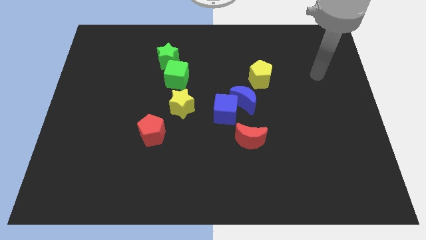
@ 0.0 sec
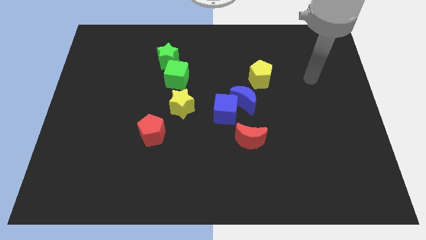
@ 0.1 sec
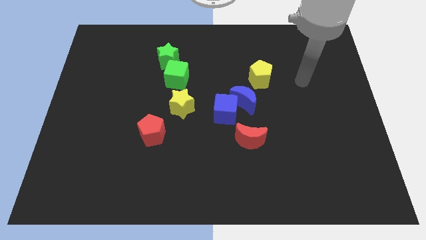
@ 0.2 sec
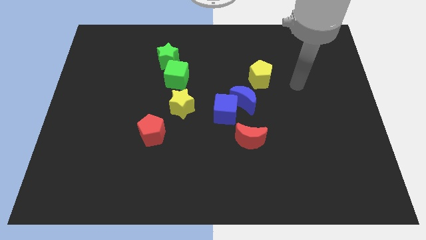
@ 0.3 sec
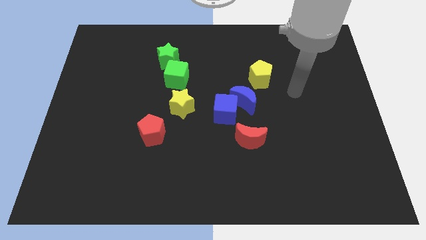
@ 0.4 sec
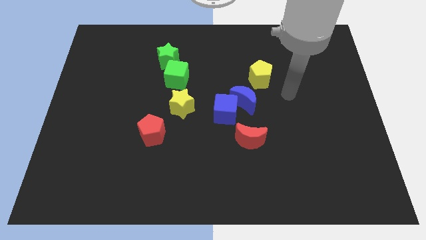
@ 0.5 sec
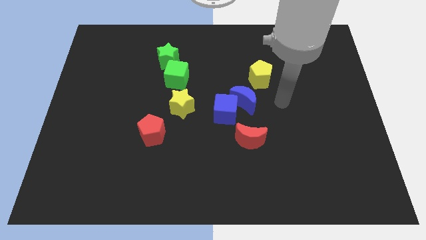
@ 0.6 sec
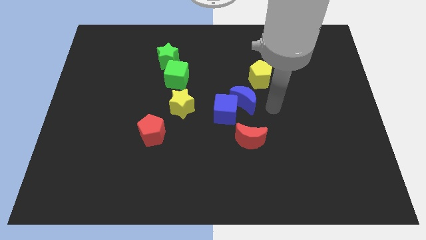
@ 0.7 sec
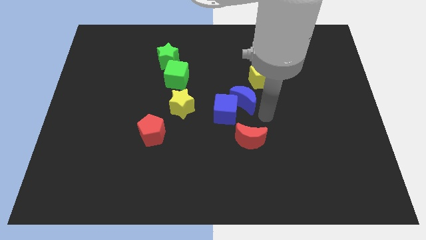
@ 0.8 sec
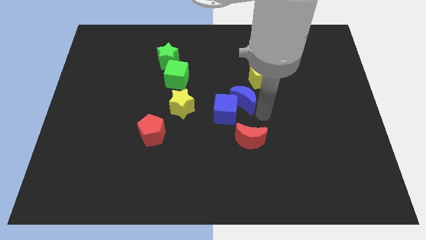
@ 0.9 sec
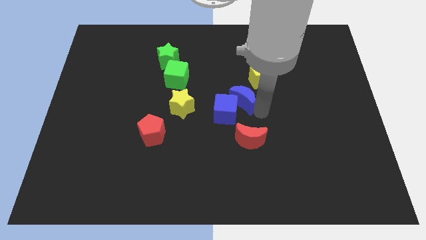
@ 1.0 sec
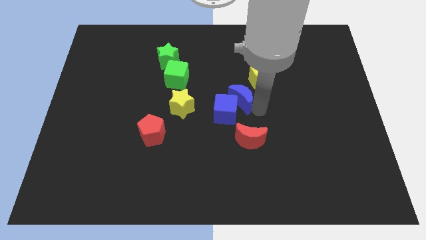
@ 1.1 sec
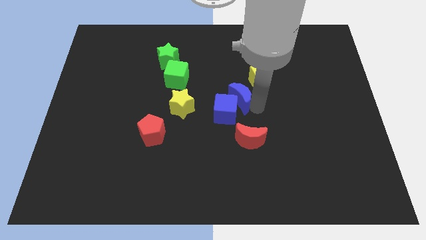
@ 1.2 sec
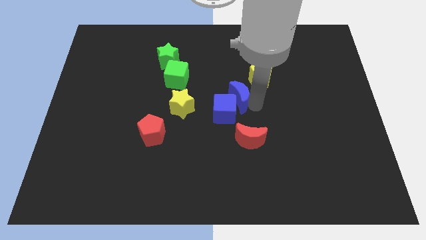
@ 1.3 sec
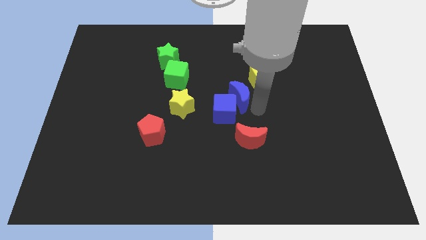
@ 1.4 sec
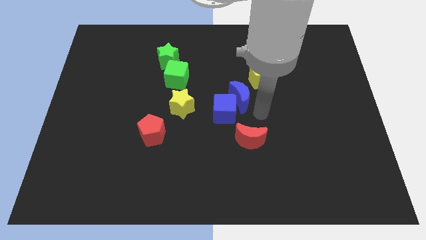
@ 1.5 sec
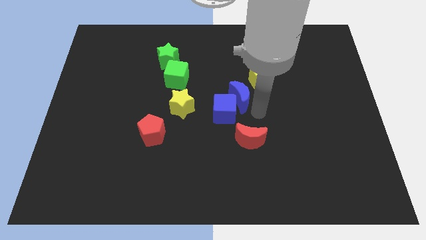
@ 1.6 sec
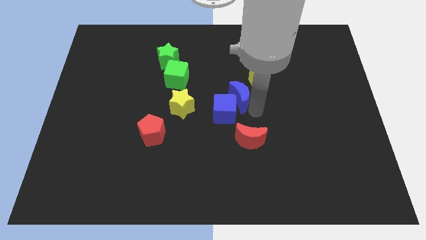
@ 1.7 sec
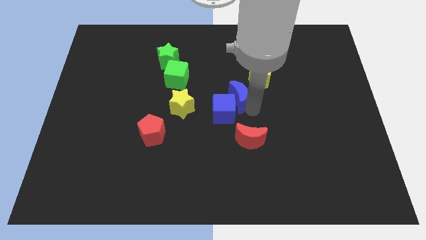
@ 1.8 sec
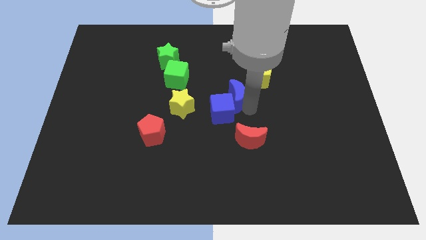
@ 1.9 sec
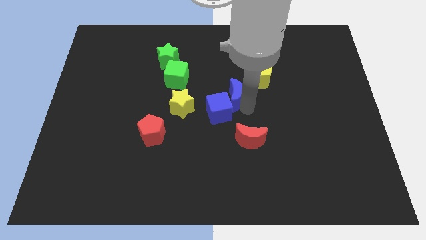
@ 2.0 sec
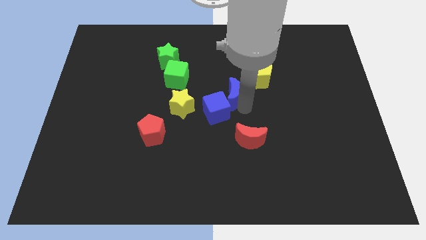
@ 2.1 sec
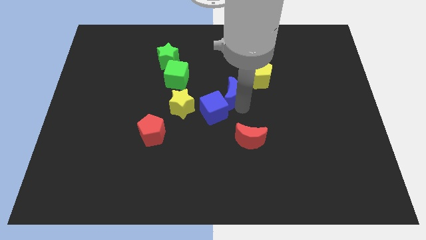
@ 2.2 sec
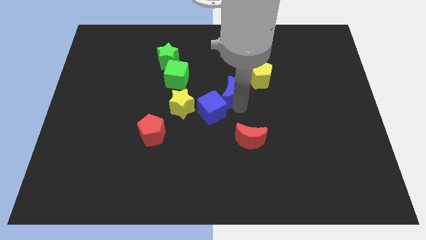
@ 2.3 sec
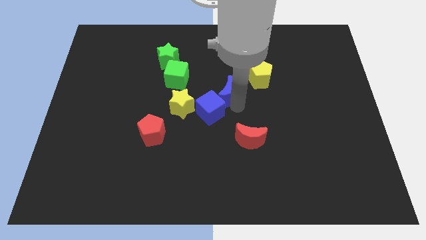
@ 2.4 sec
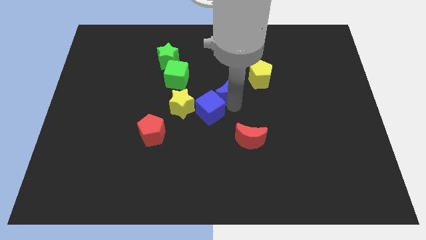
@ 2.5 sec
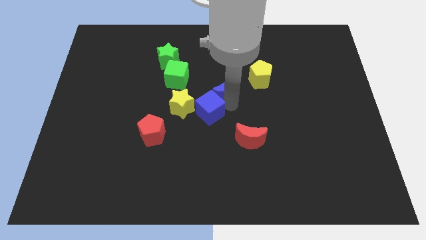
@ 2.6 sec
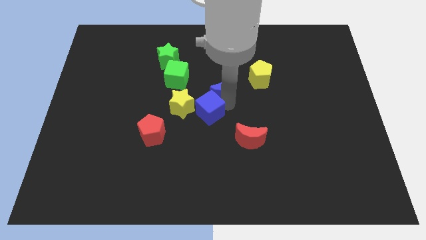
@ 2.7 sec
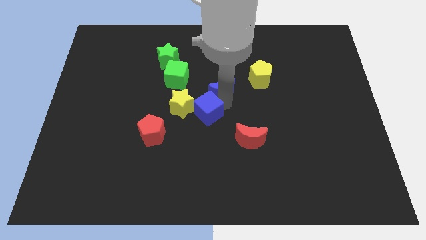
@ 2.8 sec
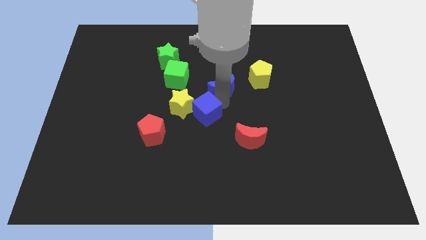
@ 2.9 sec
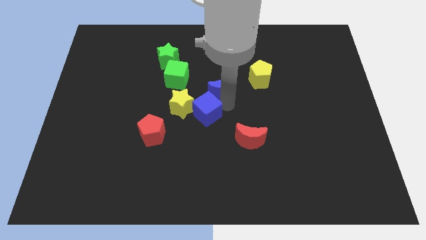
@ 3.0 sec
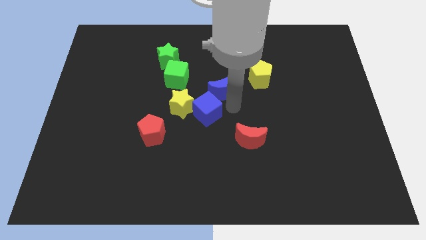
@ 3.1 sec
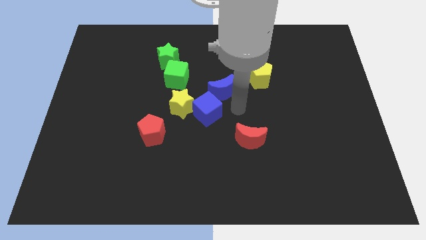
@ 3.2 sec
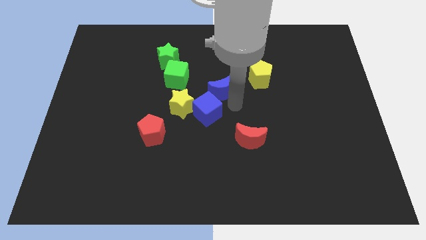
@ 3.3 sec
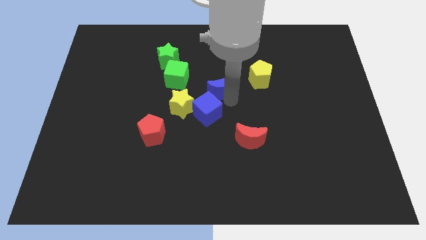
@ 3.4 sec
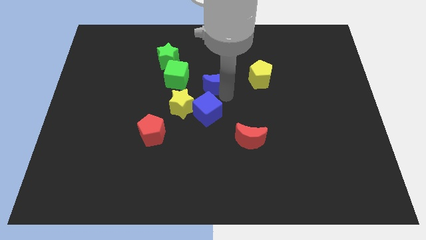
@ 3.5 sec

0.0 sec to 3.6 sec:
push the blue moon diagonally upwards and to the left a bit

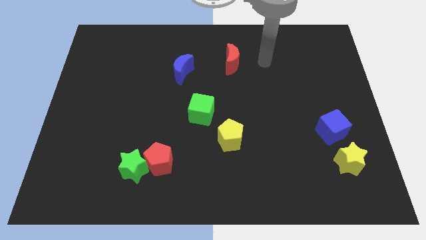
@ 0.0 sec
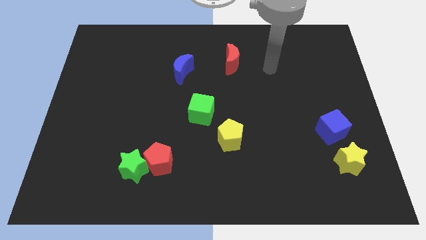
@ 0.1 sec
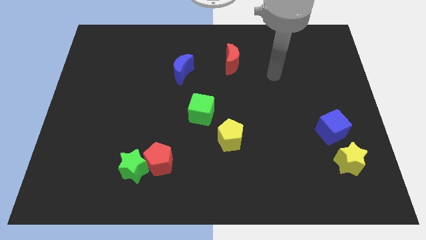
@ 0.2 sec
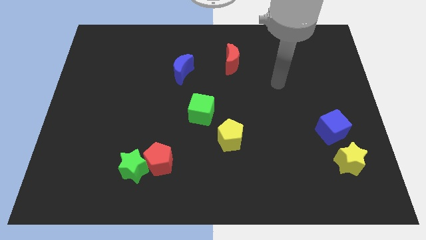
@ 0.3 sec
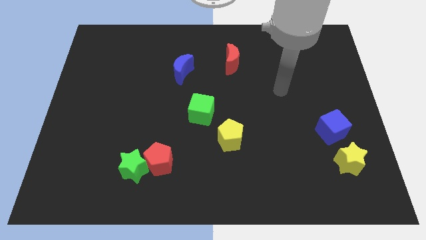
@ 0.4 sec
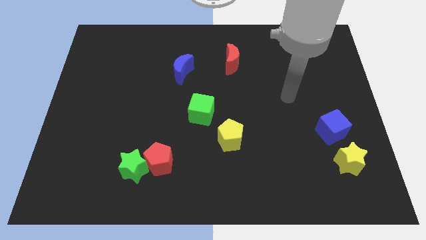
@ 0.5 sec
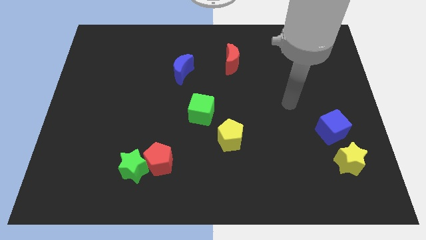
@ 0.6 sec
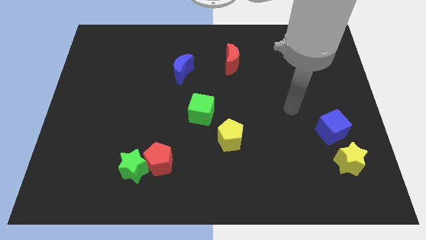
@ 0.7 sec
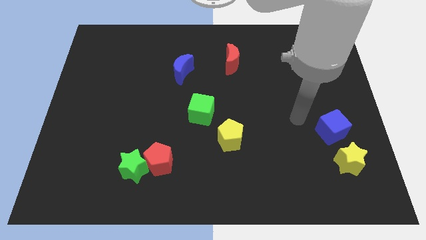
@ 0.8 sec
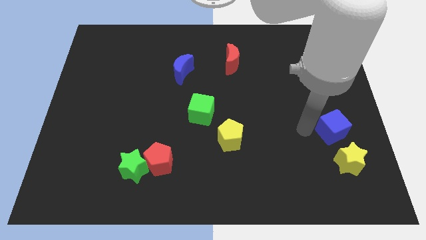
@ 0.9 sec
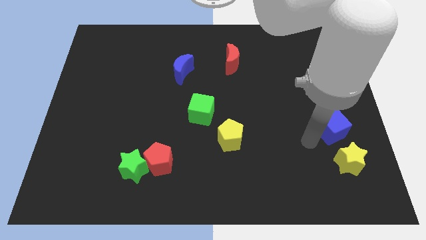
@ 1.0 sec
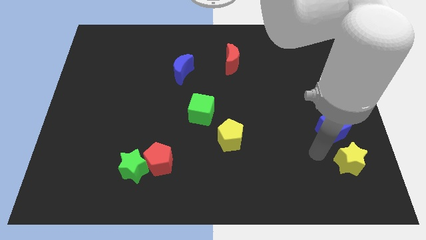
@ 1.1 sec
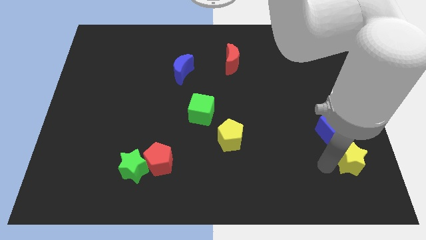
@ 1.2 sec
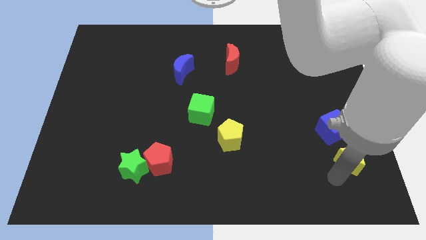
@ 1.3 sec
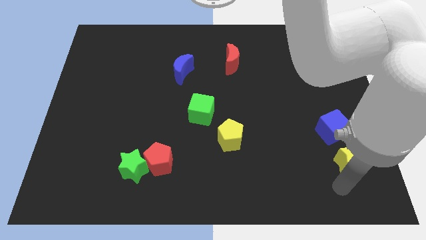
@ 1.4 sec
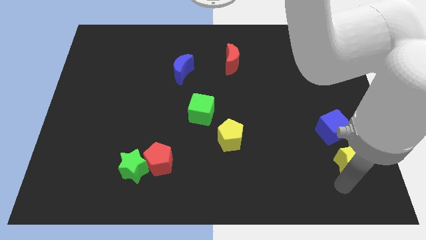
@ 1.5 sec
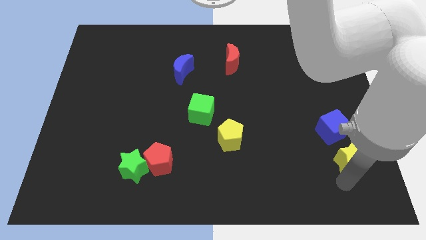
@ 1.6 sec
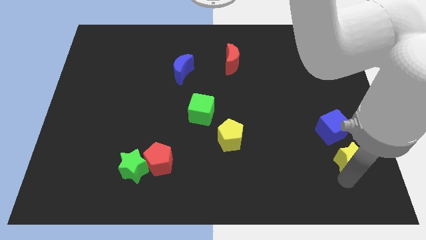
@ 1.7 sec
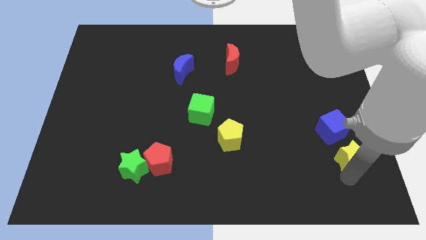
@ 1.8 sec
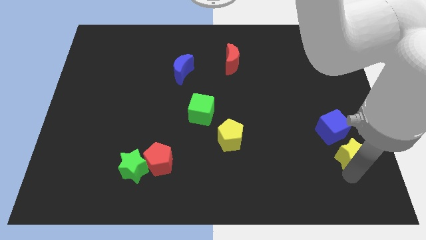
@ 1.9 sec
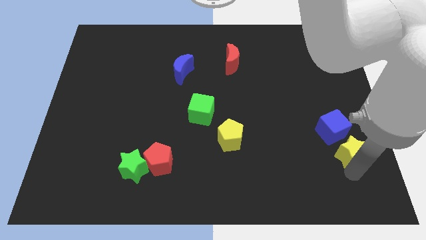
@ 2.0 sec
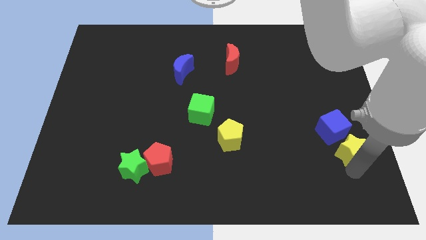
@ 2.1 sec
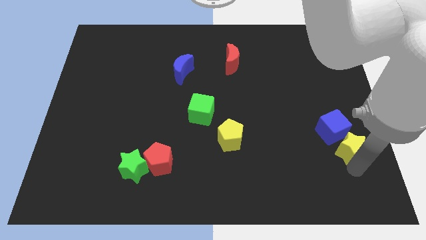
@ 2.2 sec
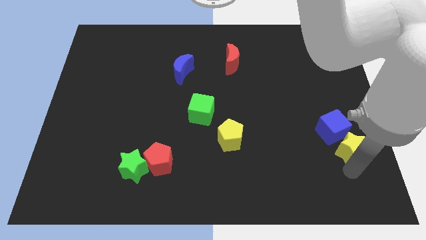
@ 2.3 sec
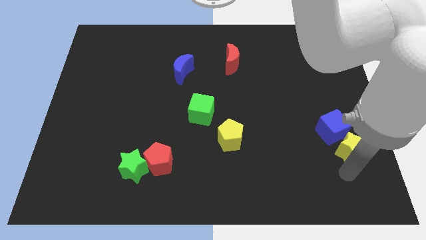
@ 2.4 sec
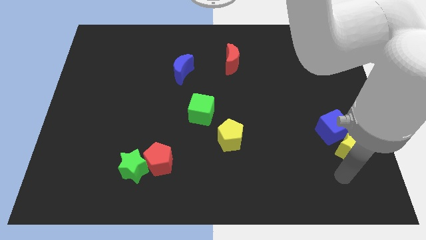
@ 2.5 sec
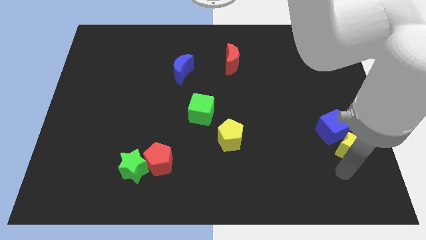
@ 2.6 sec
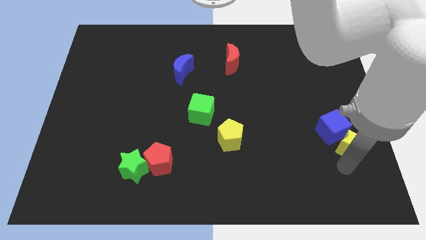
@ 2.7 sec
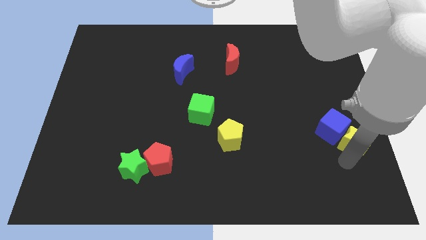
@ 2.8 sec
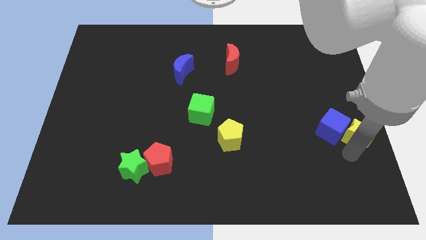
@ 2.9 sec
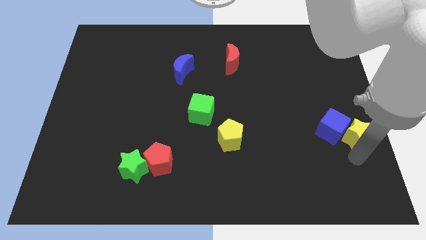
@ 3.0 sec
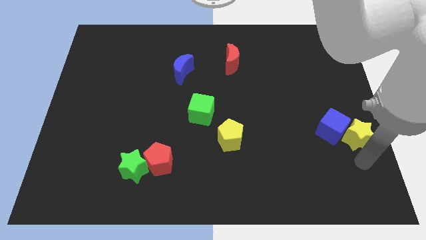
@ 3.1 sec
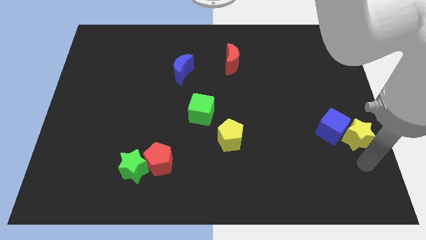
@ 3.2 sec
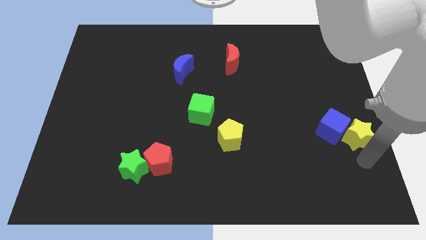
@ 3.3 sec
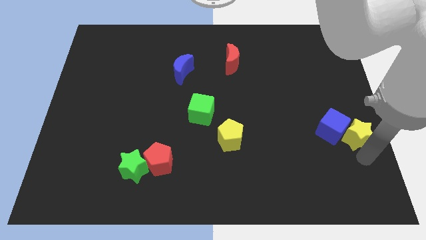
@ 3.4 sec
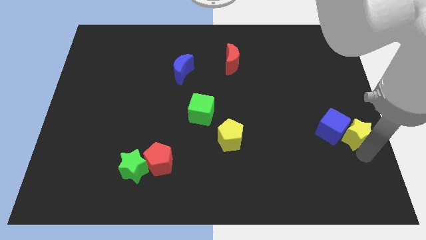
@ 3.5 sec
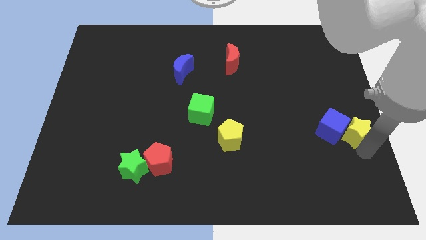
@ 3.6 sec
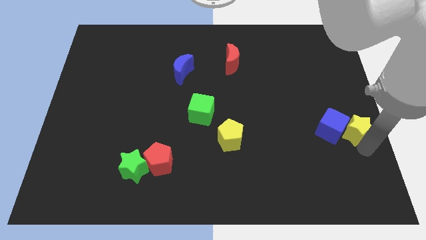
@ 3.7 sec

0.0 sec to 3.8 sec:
slightly slide the yellow star up

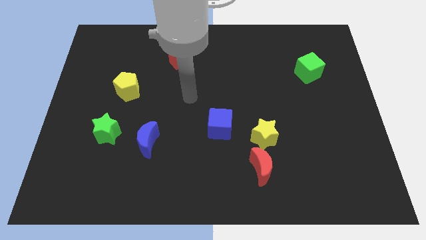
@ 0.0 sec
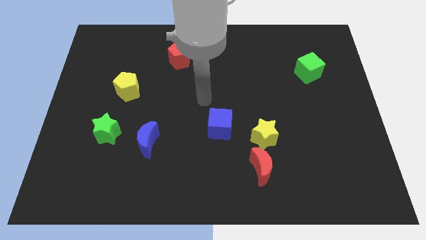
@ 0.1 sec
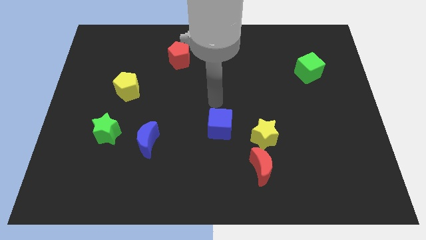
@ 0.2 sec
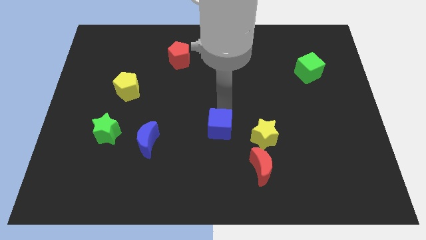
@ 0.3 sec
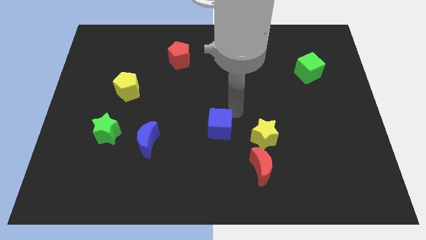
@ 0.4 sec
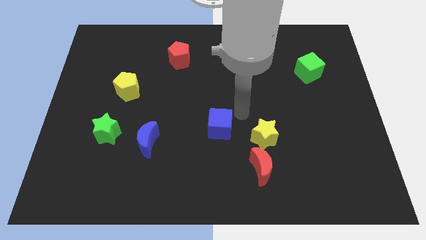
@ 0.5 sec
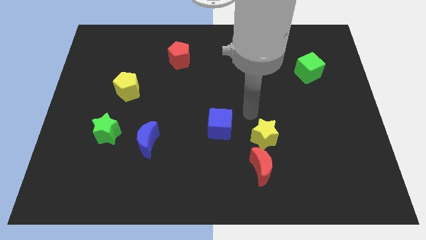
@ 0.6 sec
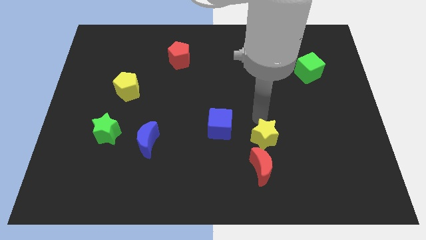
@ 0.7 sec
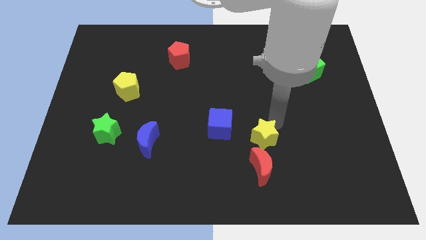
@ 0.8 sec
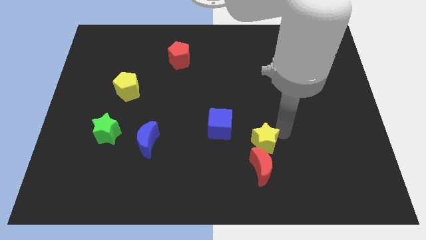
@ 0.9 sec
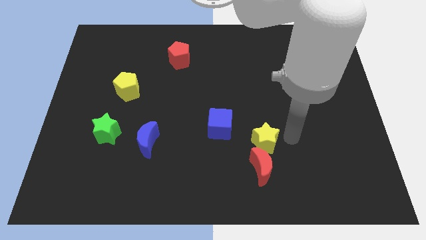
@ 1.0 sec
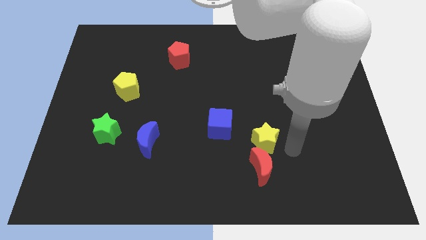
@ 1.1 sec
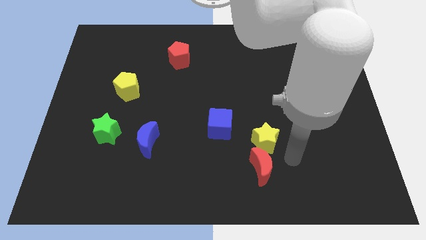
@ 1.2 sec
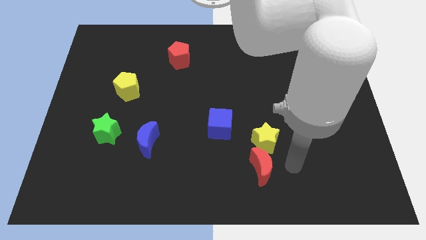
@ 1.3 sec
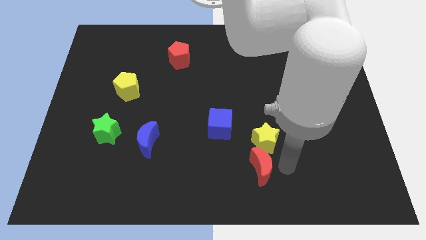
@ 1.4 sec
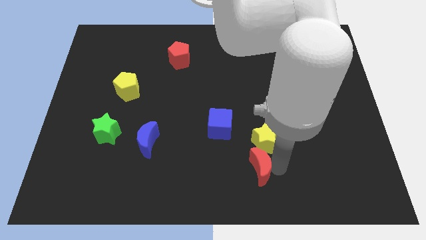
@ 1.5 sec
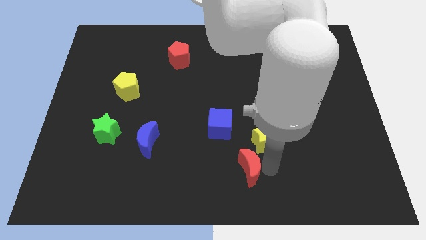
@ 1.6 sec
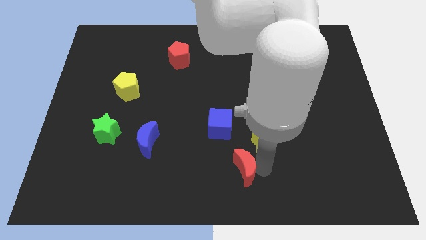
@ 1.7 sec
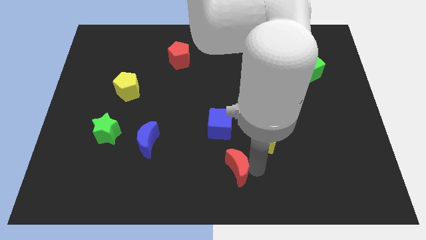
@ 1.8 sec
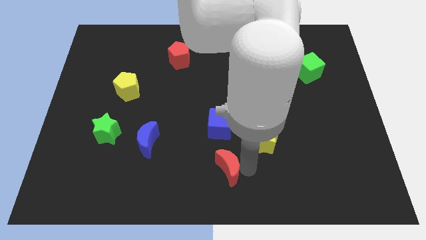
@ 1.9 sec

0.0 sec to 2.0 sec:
slightly push the red moon left
